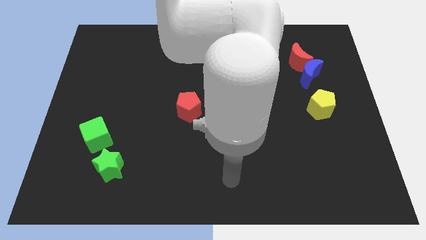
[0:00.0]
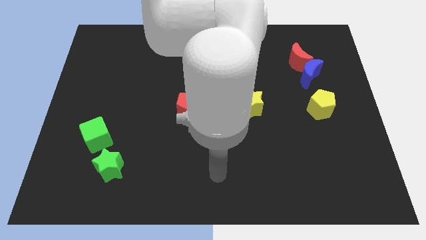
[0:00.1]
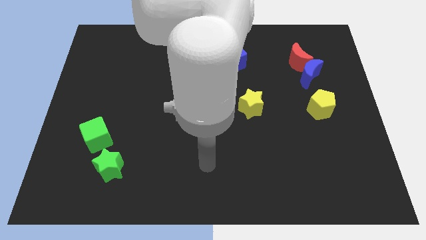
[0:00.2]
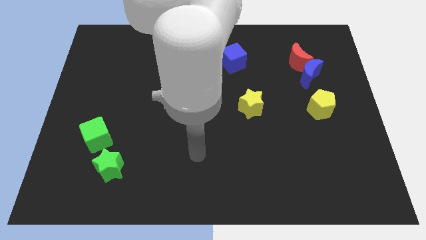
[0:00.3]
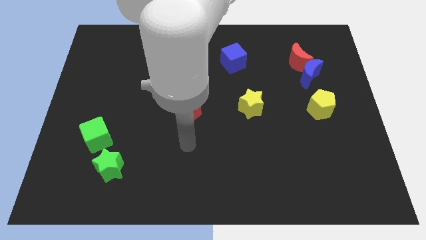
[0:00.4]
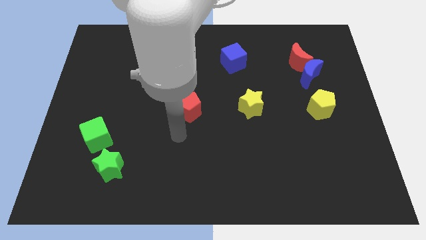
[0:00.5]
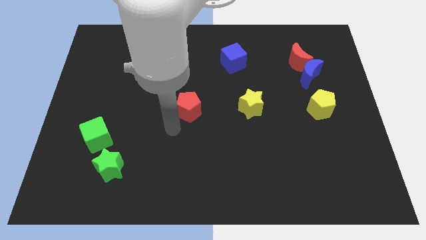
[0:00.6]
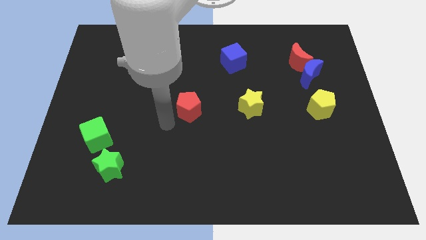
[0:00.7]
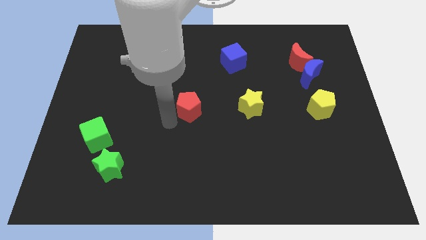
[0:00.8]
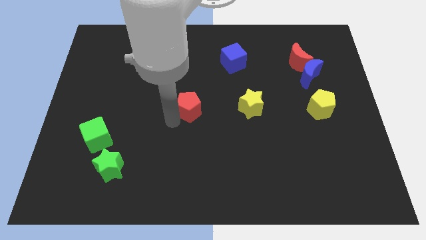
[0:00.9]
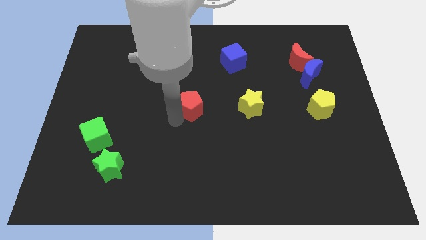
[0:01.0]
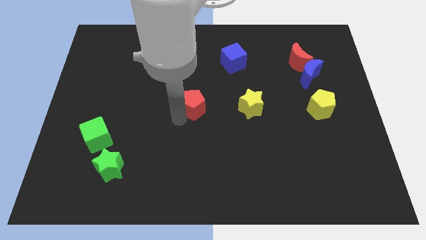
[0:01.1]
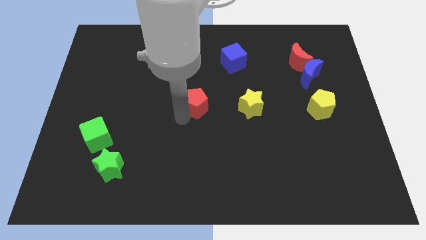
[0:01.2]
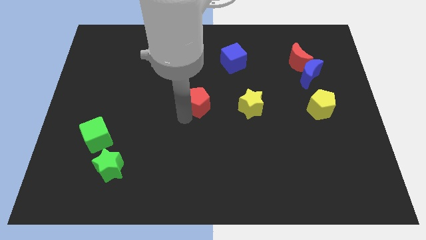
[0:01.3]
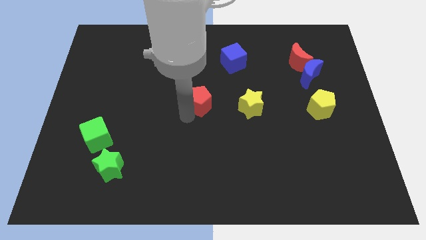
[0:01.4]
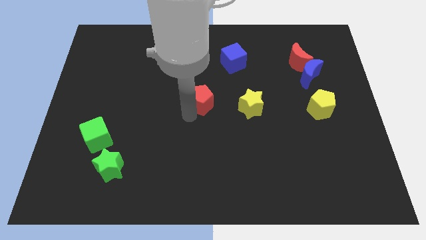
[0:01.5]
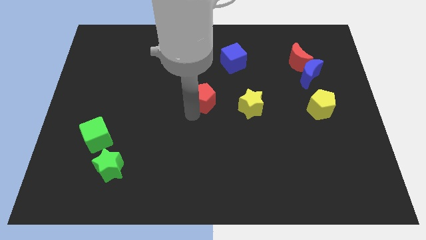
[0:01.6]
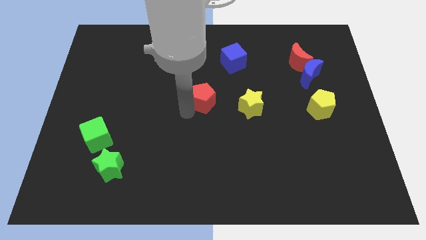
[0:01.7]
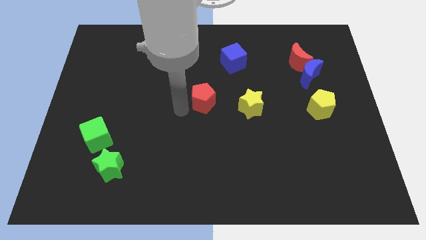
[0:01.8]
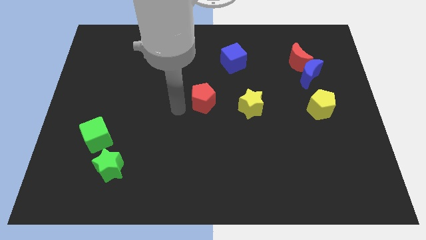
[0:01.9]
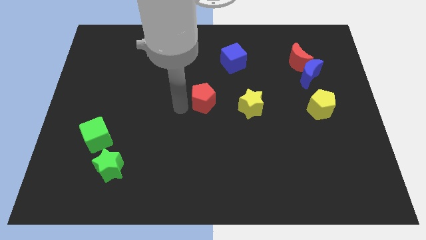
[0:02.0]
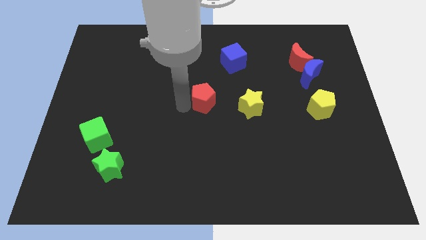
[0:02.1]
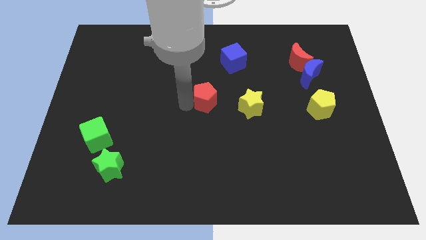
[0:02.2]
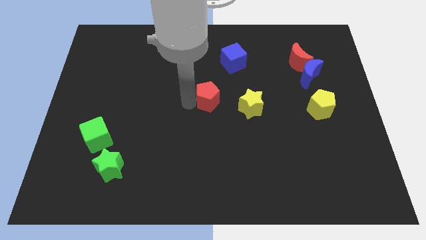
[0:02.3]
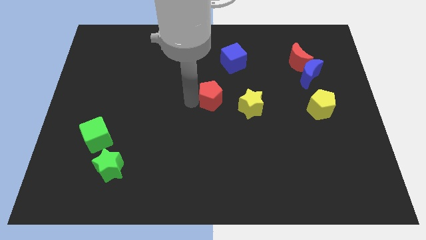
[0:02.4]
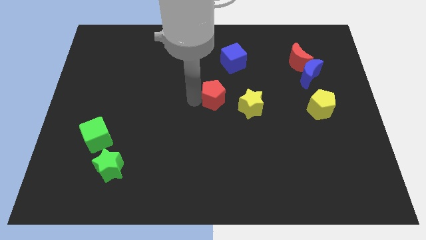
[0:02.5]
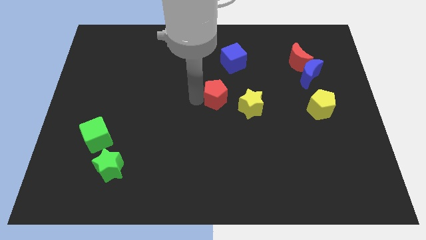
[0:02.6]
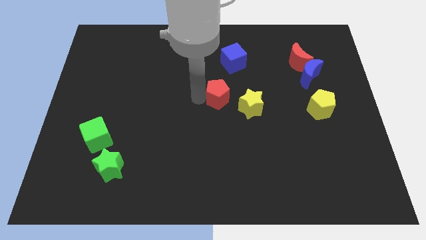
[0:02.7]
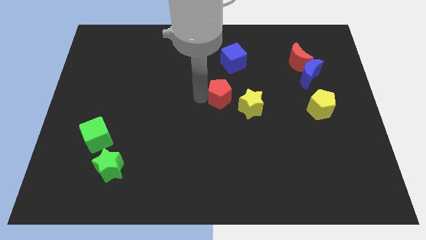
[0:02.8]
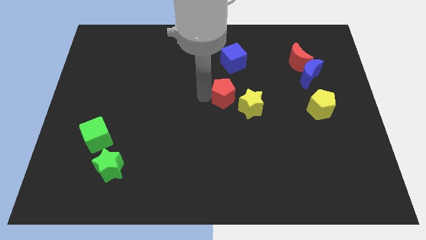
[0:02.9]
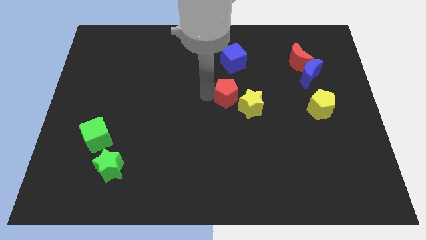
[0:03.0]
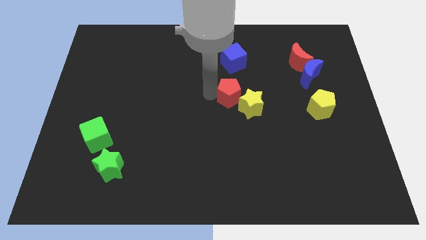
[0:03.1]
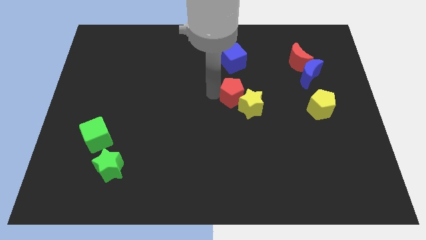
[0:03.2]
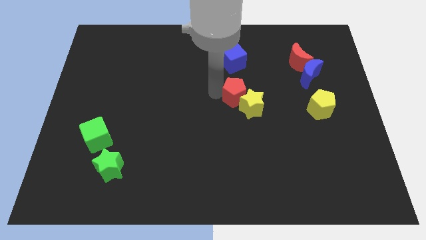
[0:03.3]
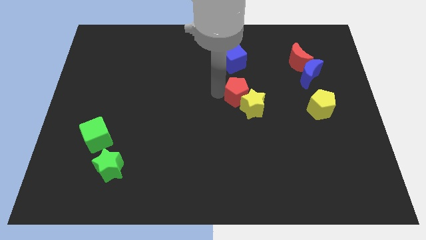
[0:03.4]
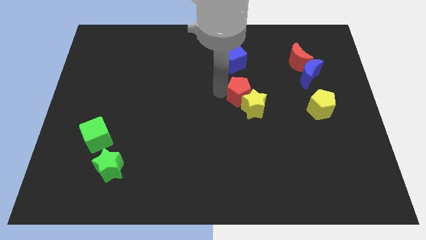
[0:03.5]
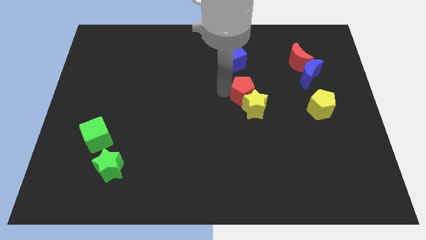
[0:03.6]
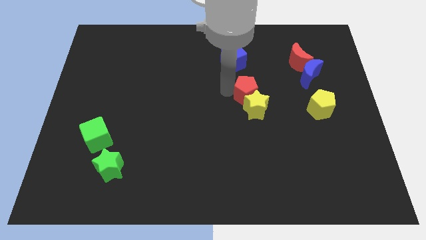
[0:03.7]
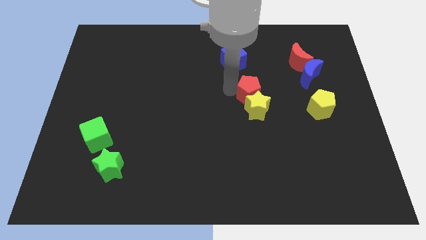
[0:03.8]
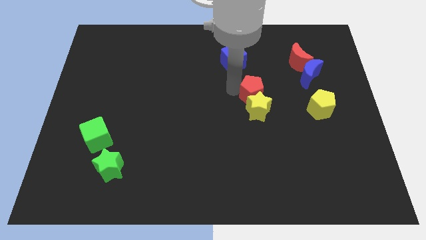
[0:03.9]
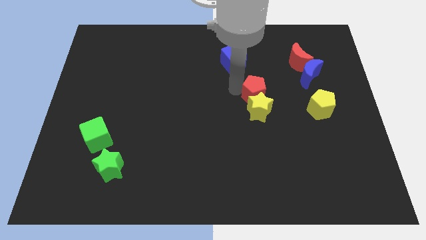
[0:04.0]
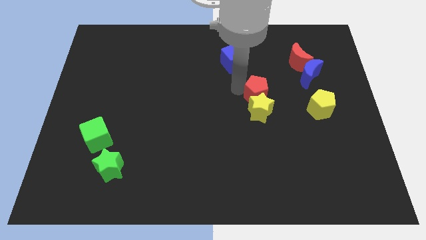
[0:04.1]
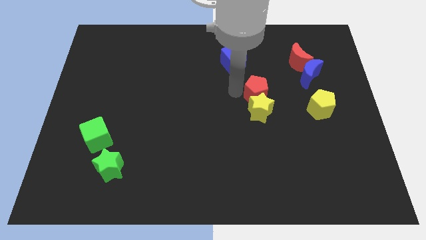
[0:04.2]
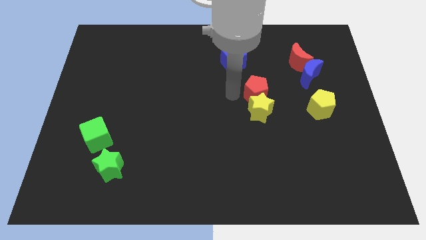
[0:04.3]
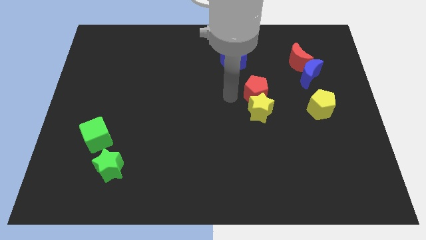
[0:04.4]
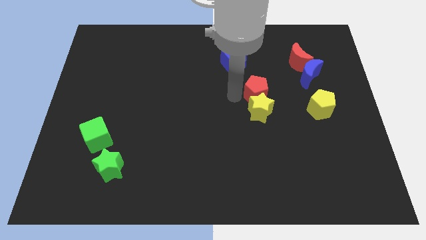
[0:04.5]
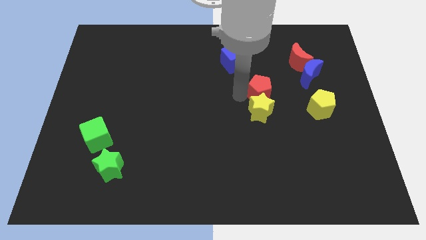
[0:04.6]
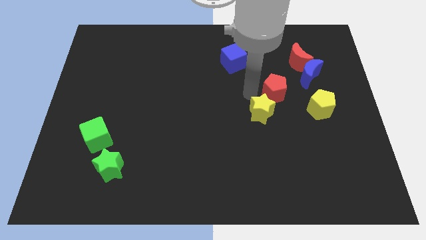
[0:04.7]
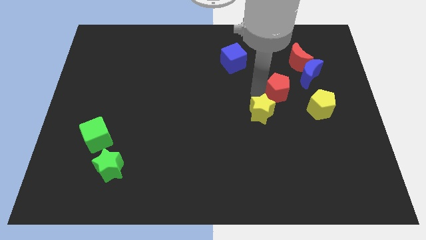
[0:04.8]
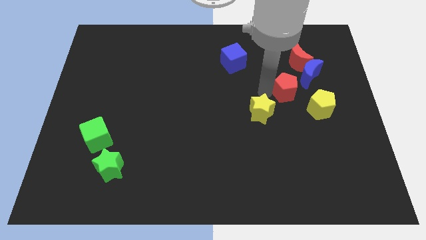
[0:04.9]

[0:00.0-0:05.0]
move the red pentagon below the red moon

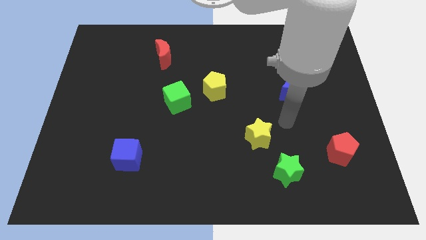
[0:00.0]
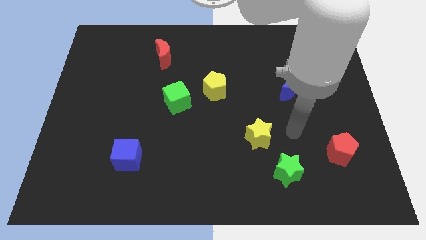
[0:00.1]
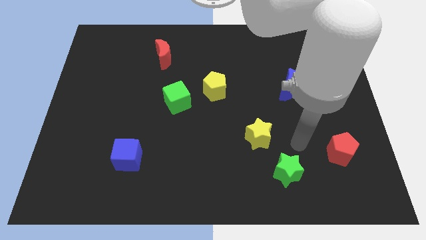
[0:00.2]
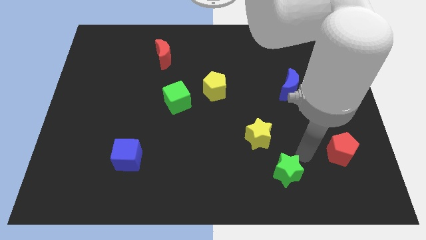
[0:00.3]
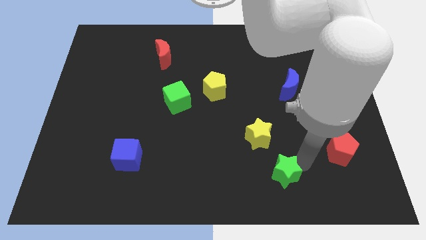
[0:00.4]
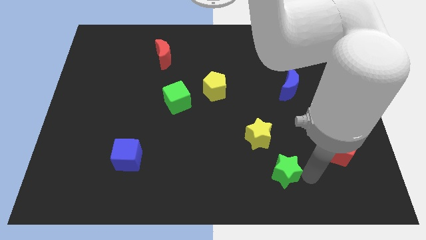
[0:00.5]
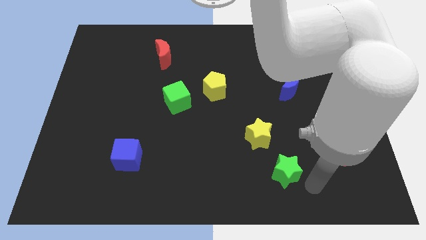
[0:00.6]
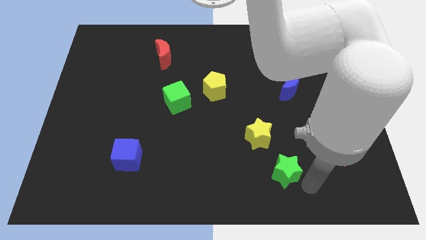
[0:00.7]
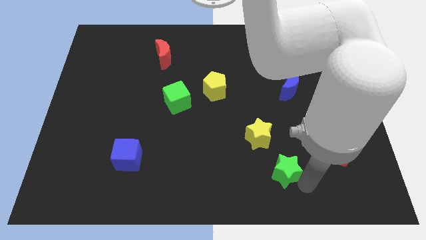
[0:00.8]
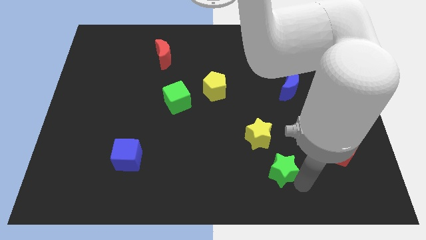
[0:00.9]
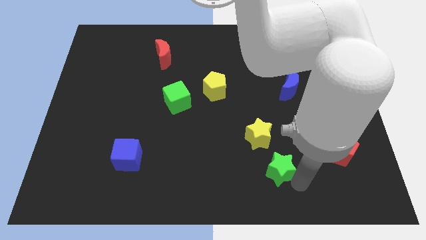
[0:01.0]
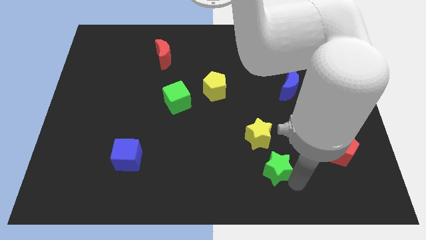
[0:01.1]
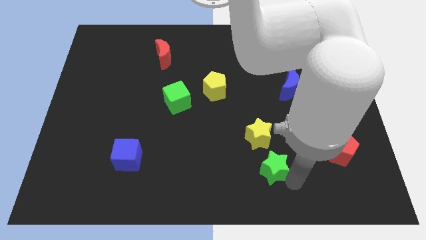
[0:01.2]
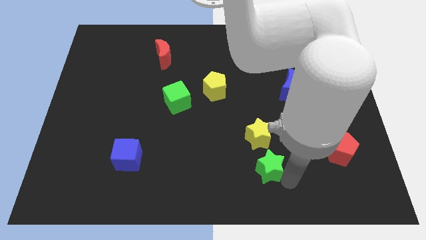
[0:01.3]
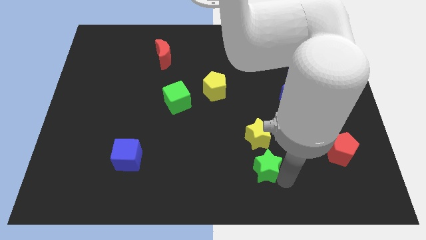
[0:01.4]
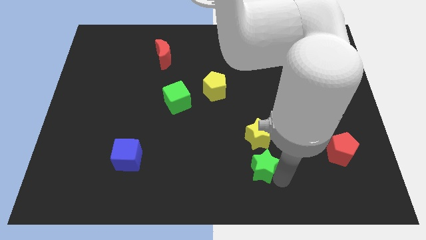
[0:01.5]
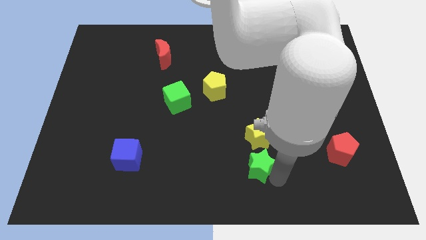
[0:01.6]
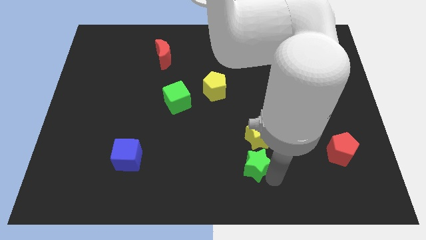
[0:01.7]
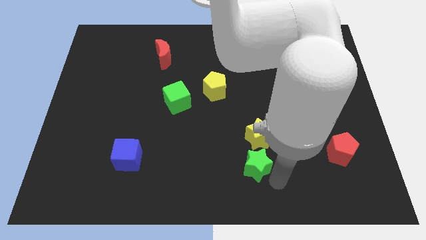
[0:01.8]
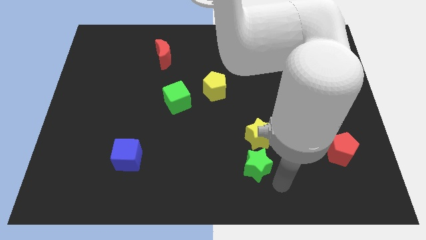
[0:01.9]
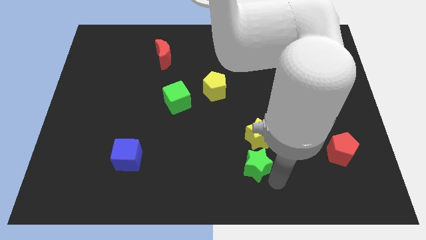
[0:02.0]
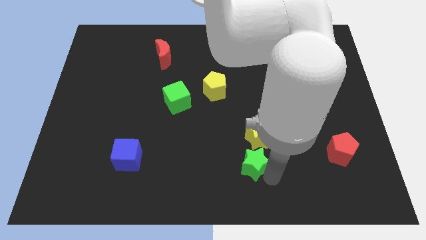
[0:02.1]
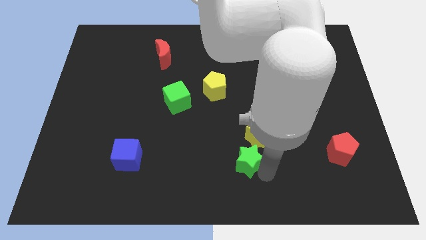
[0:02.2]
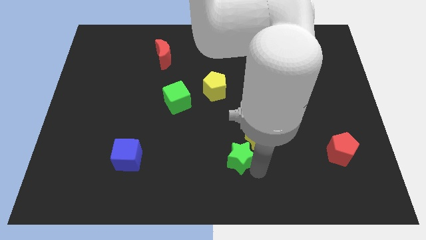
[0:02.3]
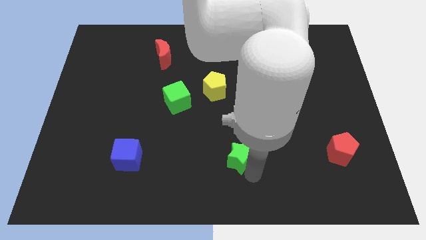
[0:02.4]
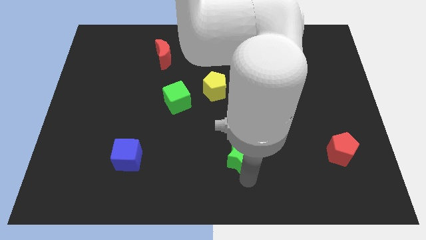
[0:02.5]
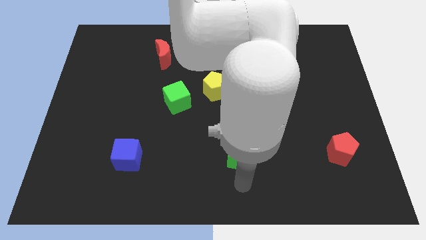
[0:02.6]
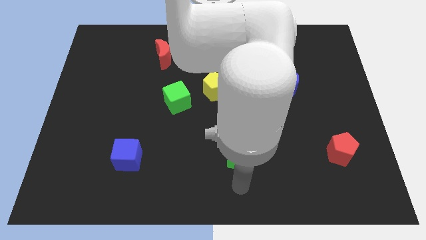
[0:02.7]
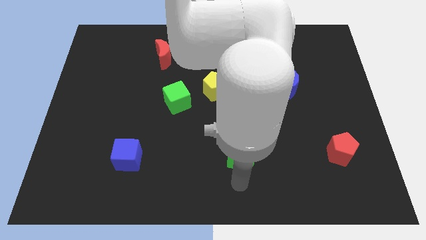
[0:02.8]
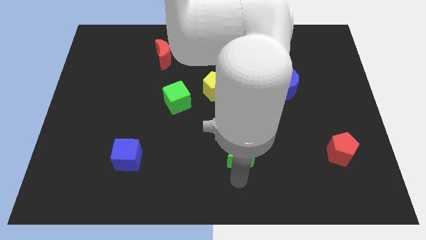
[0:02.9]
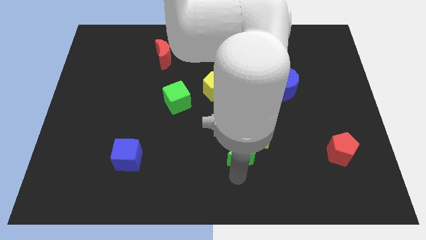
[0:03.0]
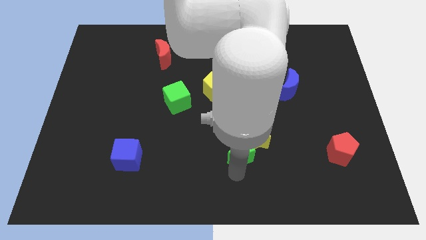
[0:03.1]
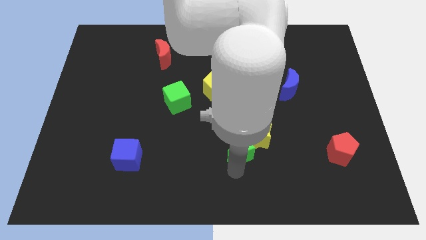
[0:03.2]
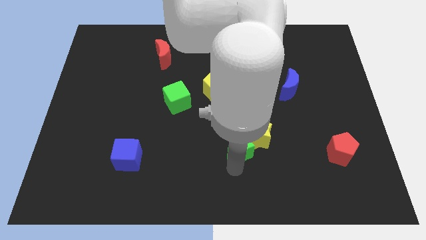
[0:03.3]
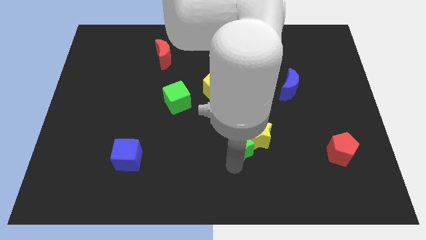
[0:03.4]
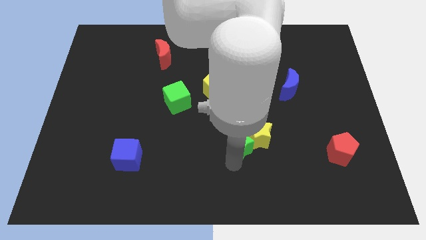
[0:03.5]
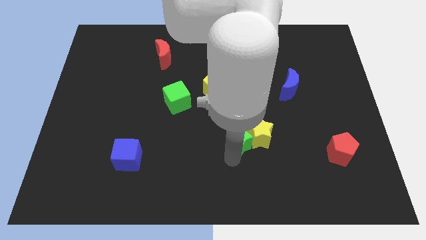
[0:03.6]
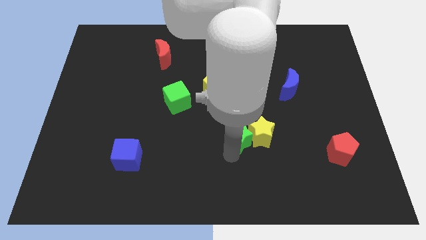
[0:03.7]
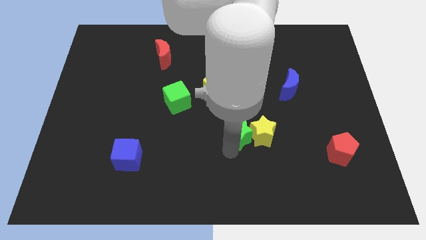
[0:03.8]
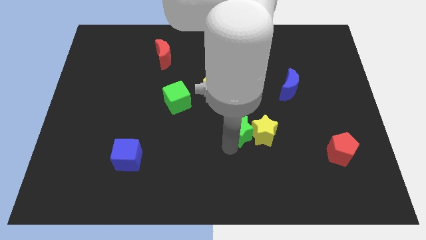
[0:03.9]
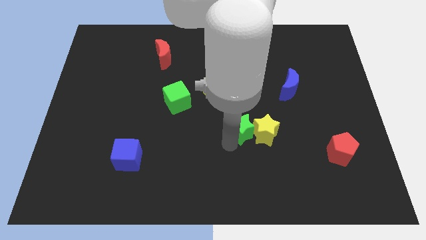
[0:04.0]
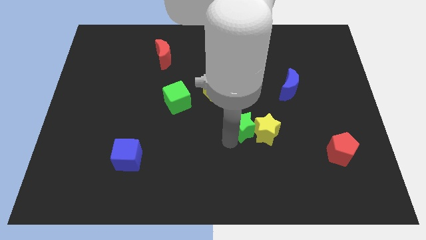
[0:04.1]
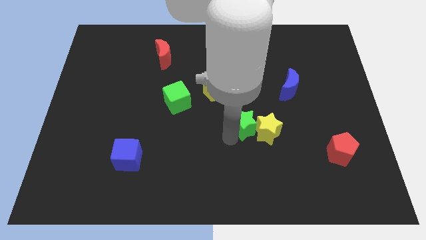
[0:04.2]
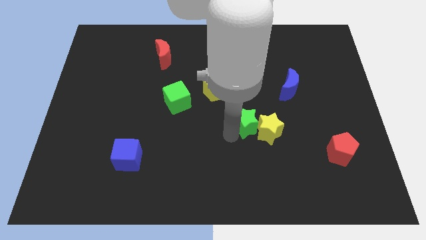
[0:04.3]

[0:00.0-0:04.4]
put the green star to the bottom right side of the yellow pentagon
